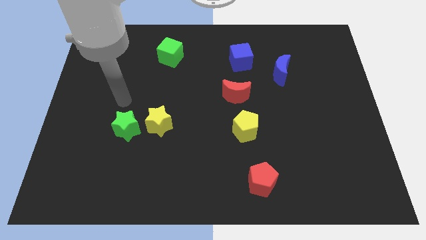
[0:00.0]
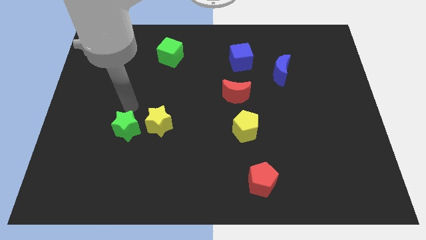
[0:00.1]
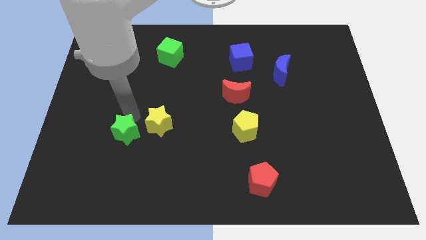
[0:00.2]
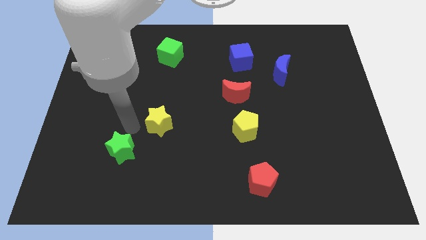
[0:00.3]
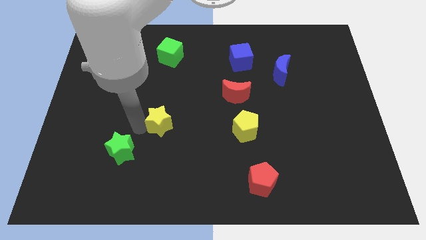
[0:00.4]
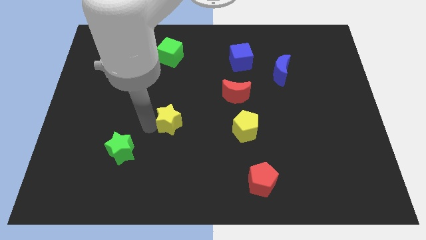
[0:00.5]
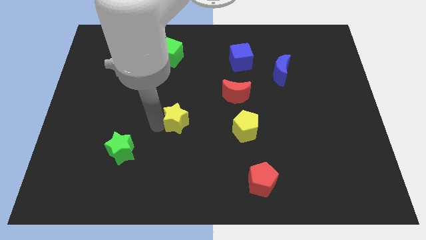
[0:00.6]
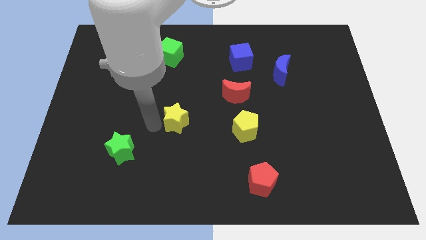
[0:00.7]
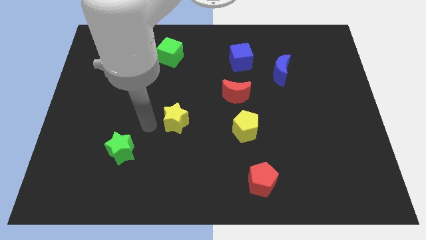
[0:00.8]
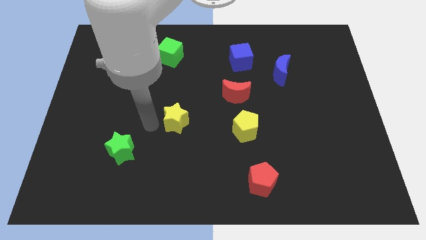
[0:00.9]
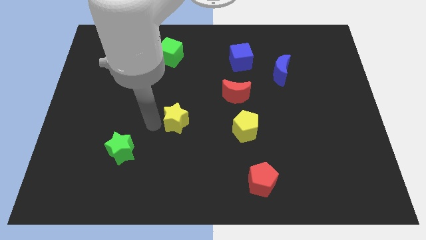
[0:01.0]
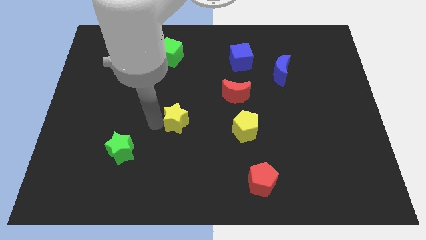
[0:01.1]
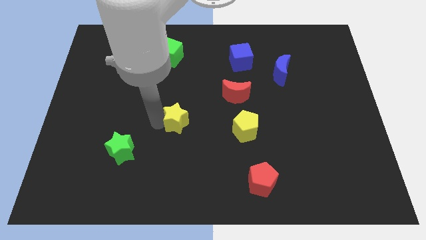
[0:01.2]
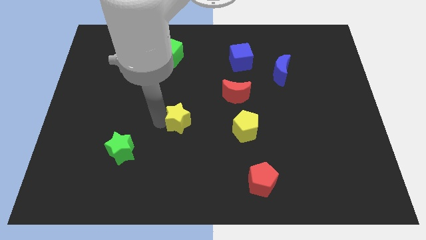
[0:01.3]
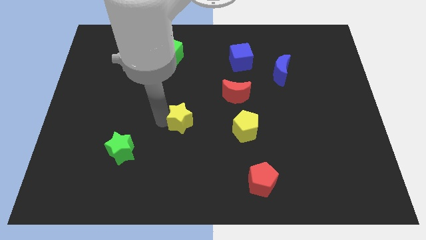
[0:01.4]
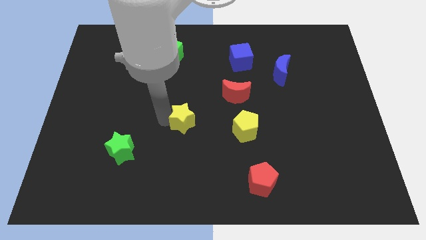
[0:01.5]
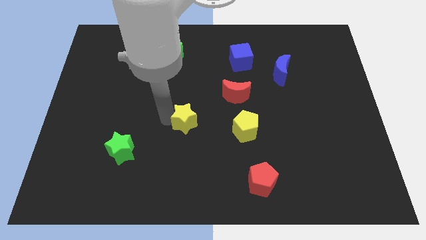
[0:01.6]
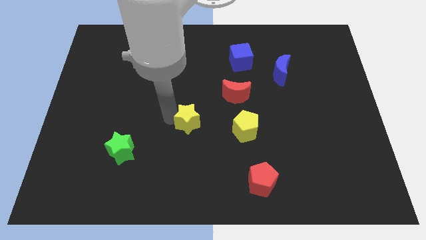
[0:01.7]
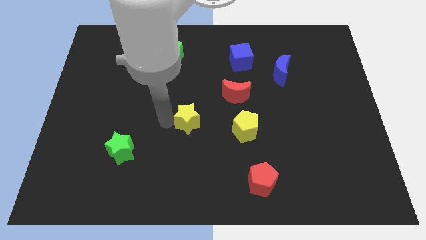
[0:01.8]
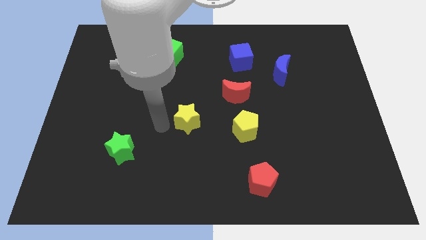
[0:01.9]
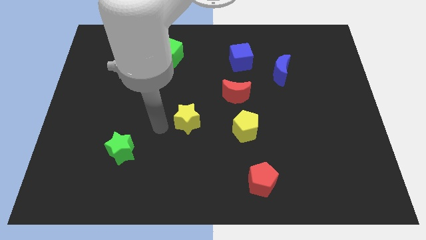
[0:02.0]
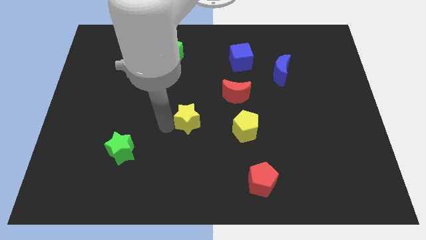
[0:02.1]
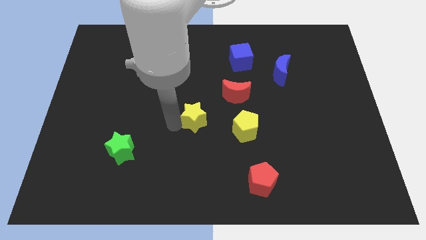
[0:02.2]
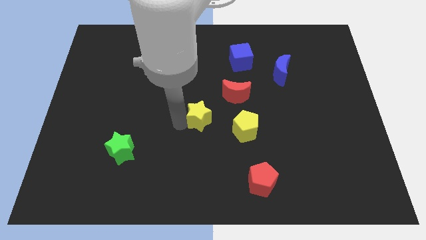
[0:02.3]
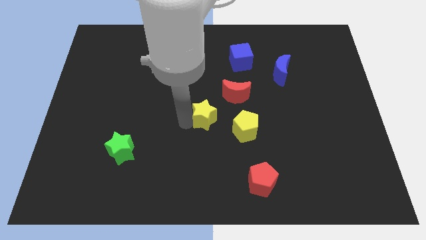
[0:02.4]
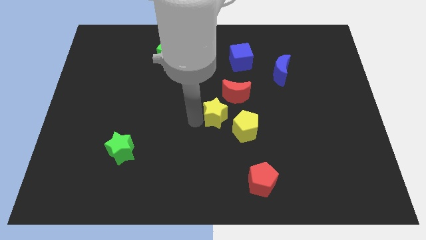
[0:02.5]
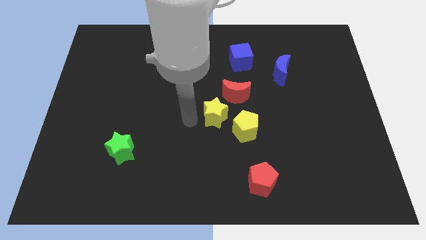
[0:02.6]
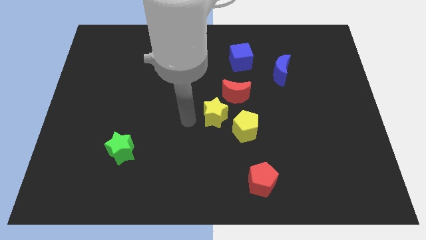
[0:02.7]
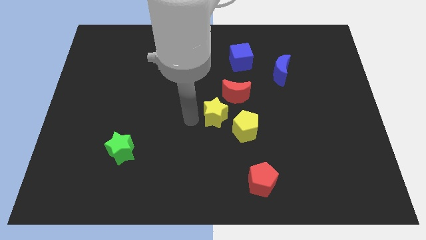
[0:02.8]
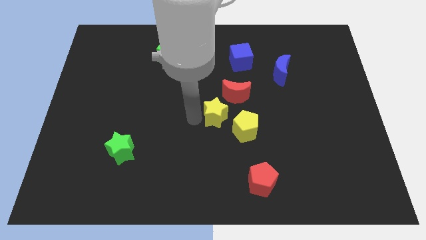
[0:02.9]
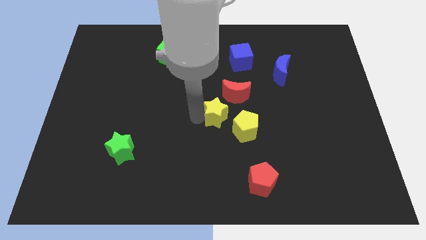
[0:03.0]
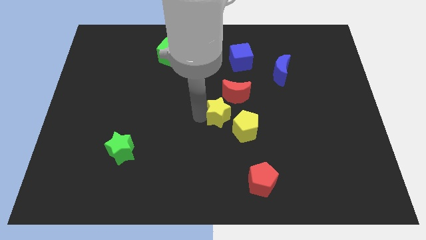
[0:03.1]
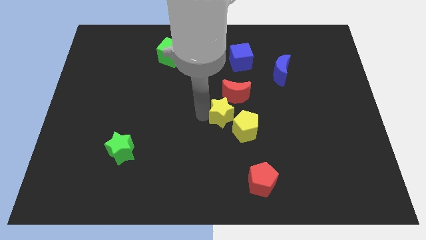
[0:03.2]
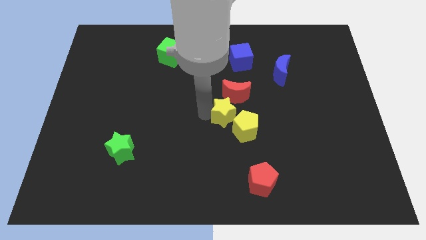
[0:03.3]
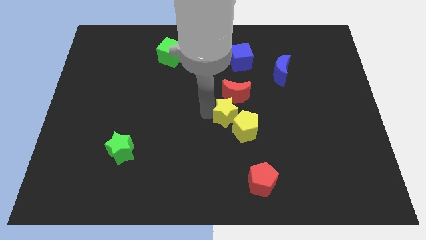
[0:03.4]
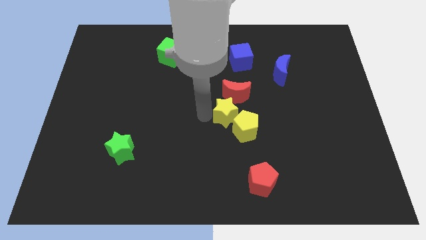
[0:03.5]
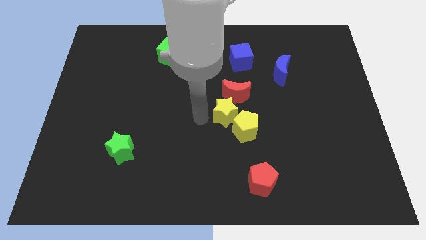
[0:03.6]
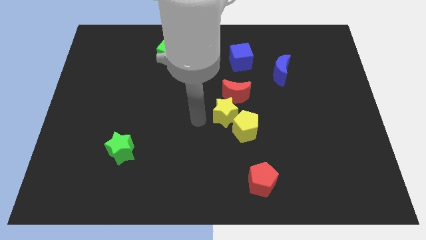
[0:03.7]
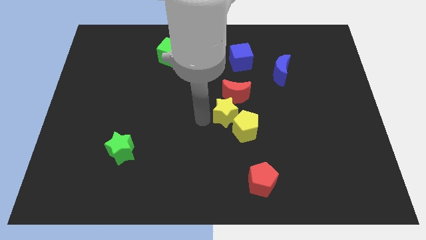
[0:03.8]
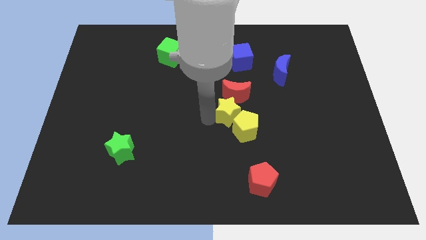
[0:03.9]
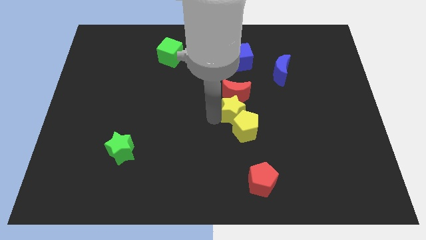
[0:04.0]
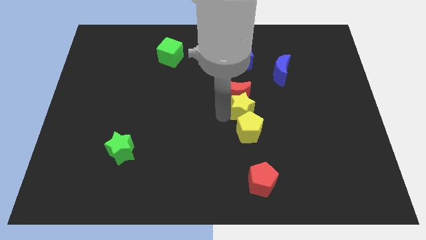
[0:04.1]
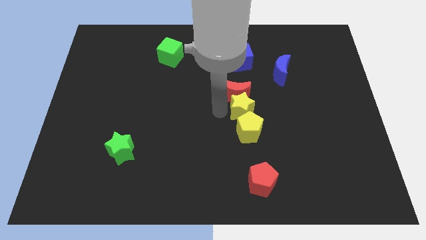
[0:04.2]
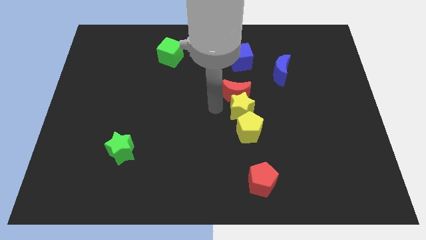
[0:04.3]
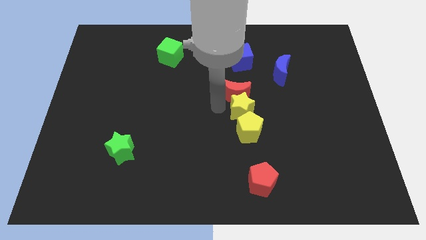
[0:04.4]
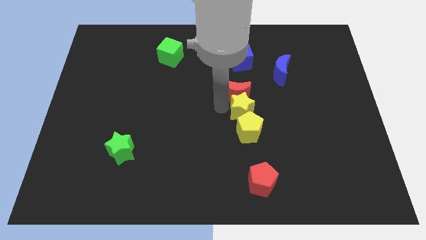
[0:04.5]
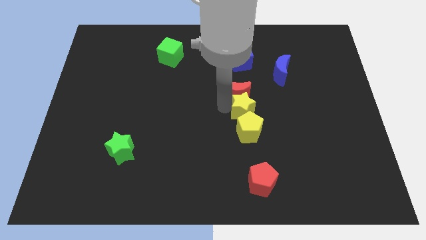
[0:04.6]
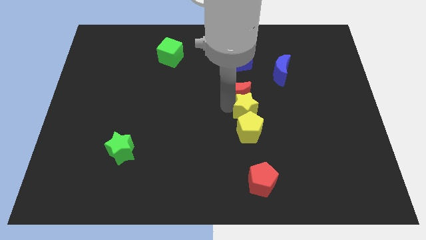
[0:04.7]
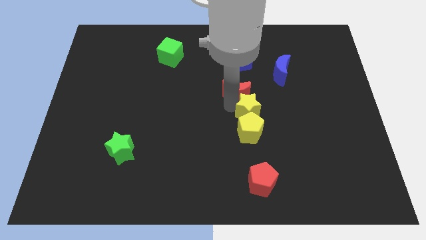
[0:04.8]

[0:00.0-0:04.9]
move the yellow star to the right

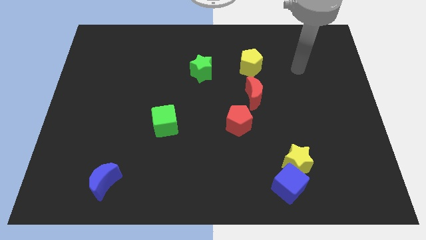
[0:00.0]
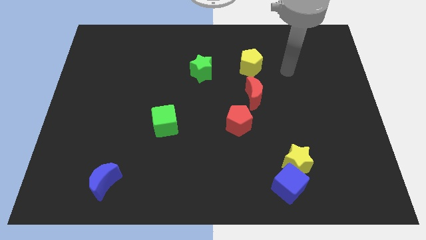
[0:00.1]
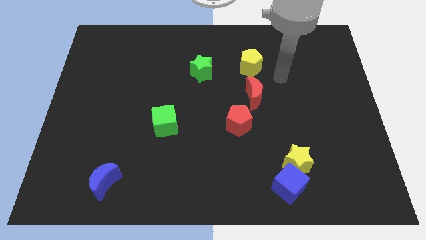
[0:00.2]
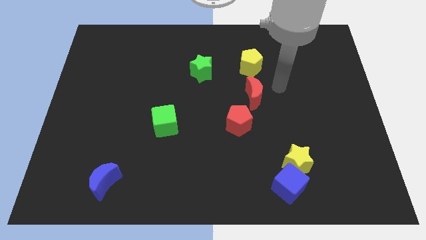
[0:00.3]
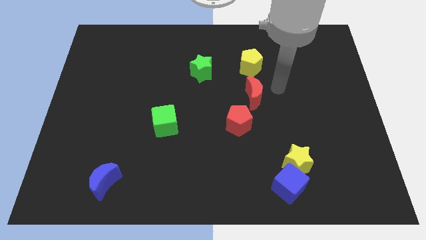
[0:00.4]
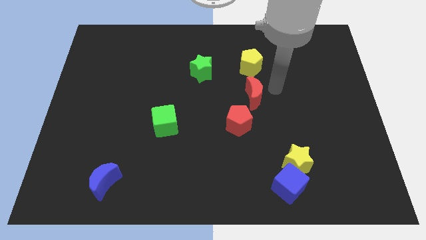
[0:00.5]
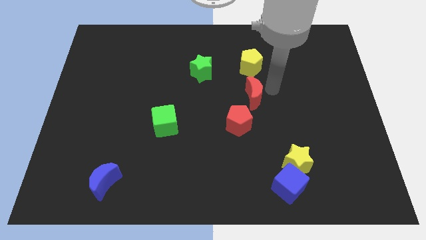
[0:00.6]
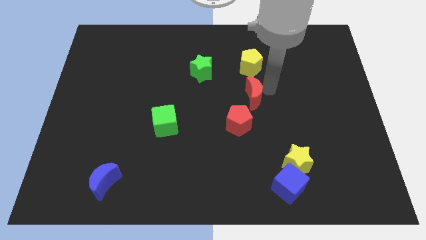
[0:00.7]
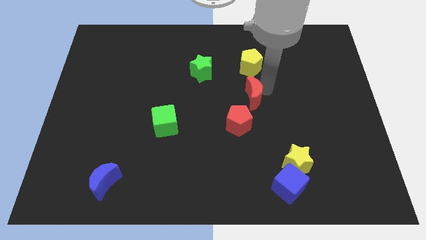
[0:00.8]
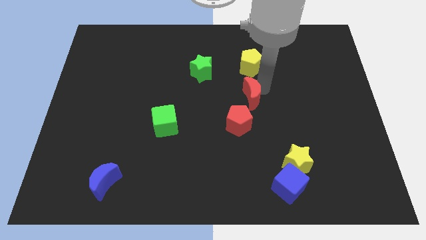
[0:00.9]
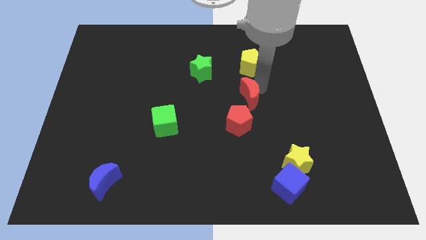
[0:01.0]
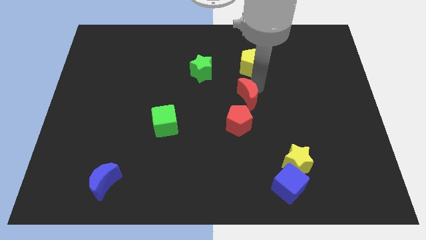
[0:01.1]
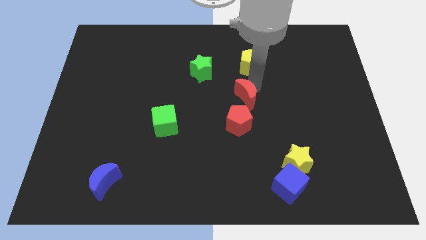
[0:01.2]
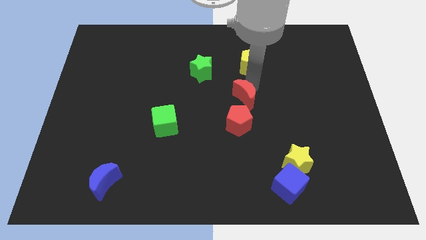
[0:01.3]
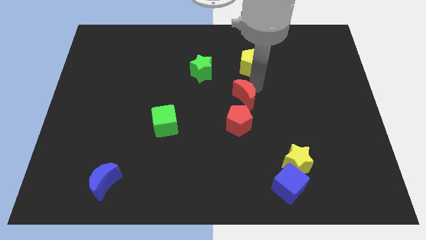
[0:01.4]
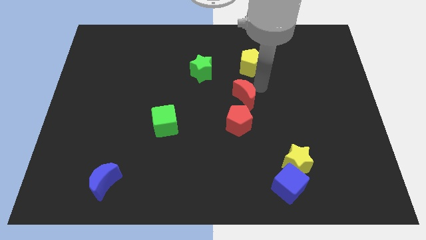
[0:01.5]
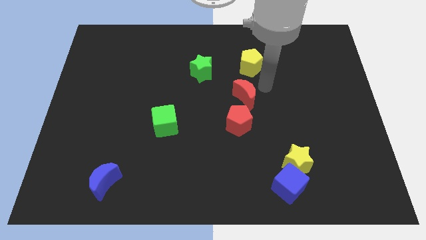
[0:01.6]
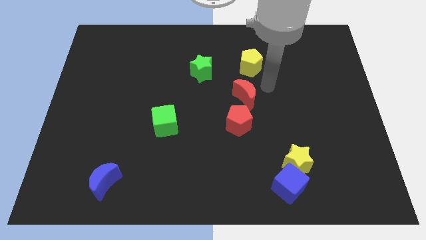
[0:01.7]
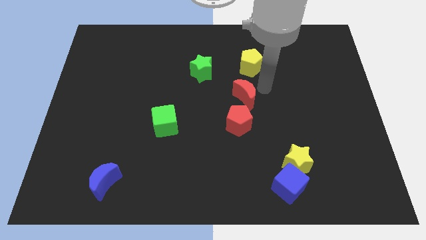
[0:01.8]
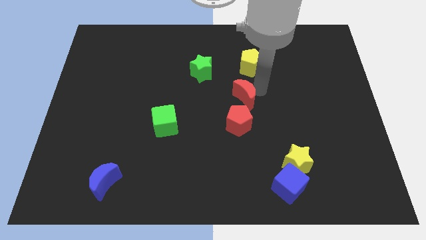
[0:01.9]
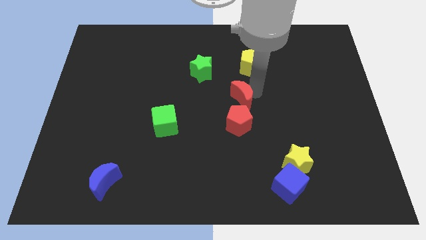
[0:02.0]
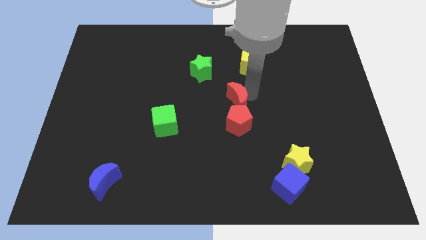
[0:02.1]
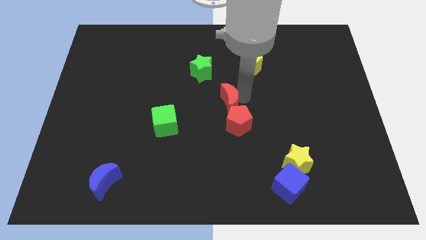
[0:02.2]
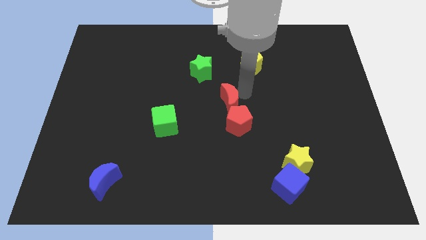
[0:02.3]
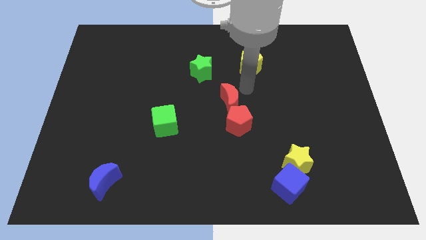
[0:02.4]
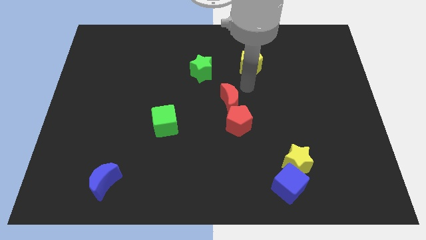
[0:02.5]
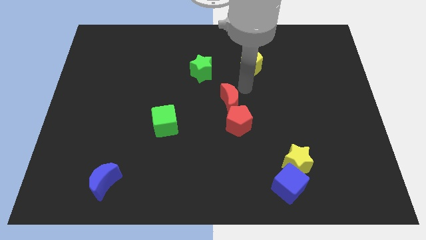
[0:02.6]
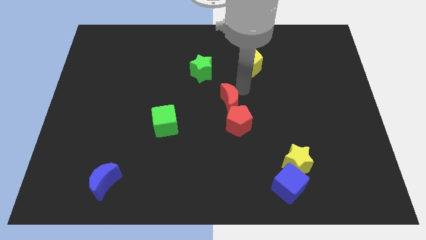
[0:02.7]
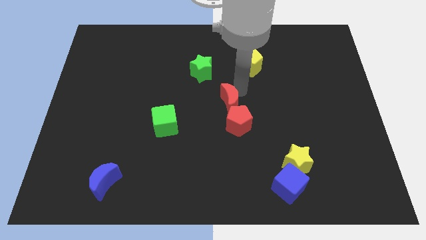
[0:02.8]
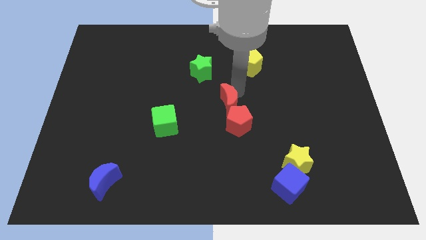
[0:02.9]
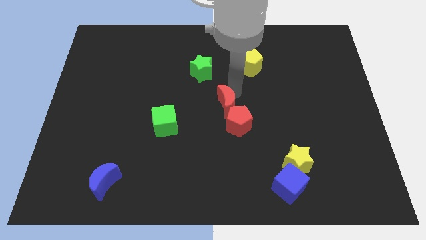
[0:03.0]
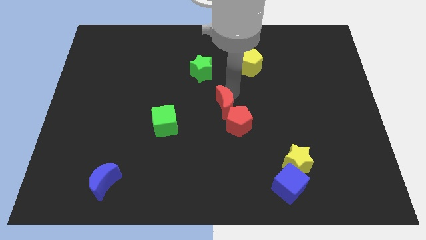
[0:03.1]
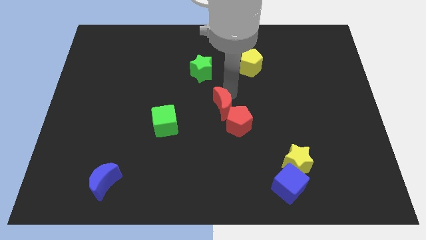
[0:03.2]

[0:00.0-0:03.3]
move the red moon slightly diagonally down and to the left

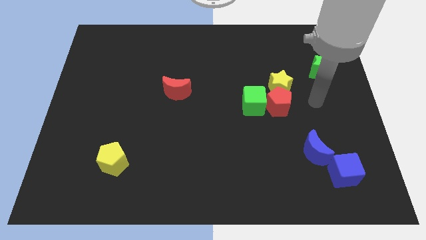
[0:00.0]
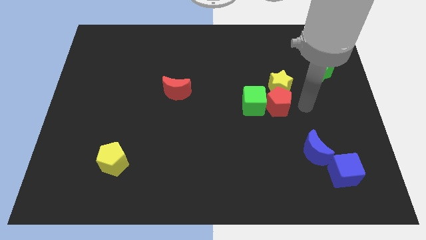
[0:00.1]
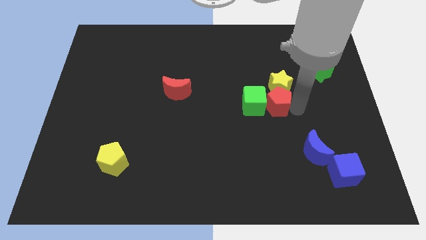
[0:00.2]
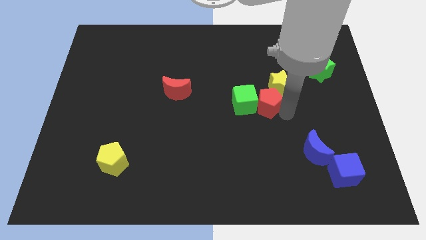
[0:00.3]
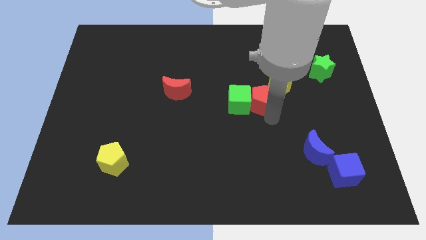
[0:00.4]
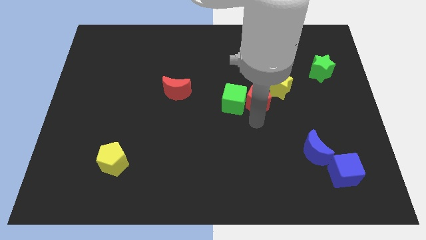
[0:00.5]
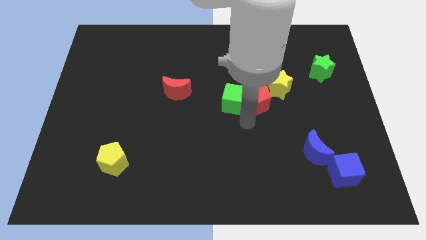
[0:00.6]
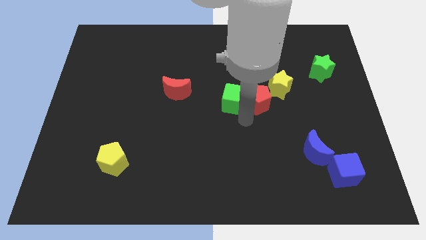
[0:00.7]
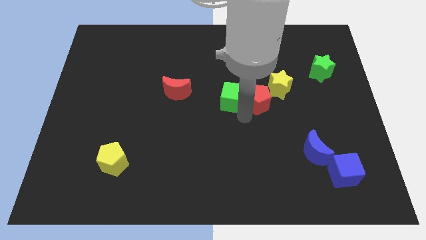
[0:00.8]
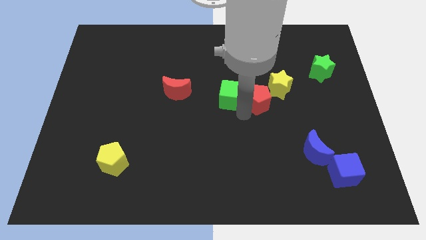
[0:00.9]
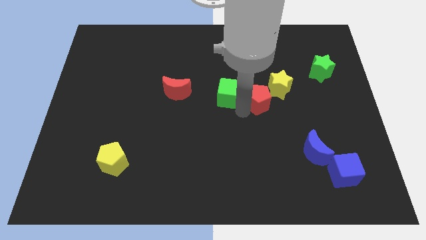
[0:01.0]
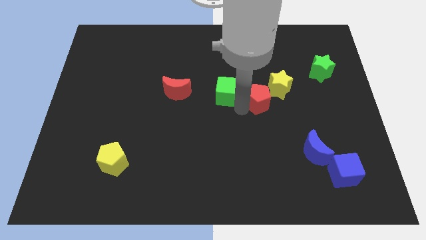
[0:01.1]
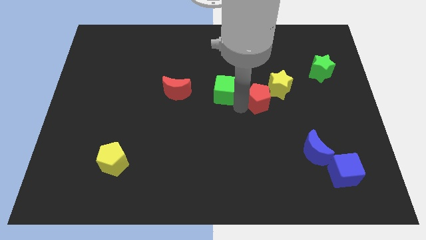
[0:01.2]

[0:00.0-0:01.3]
slide the green cube a little up and left
